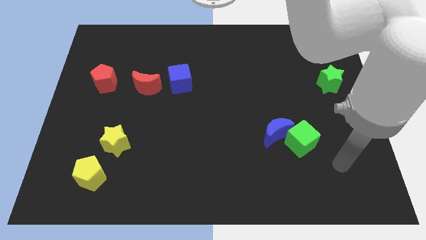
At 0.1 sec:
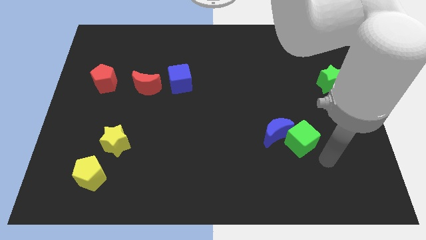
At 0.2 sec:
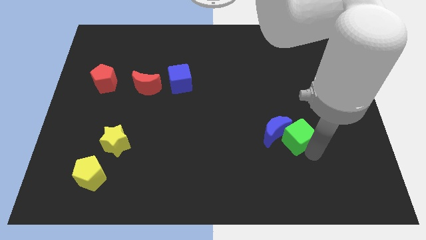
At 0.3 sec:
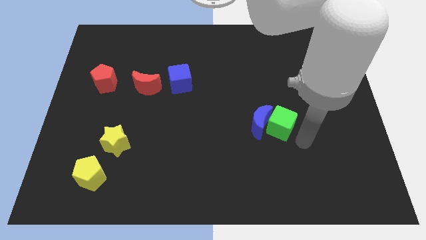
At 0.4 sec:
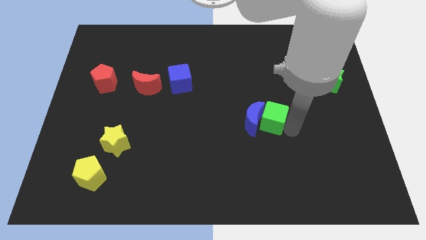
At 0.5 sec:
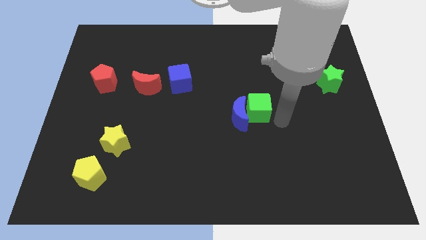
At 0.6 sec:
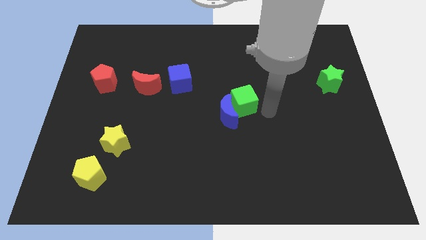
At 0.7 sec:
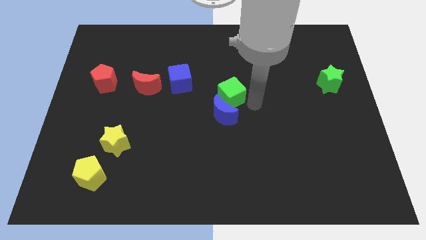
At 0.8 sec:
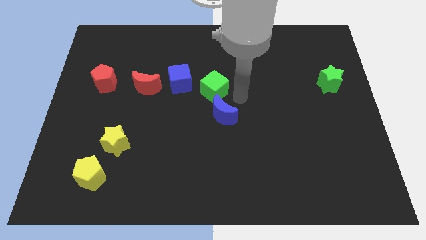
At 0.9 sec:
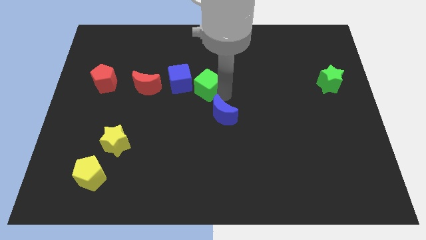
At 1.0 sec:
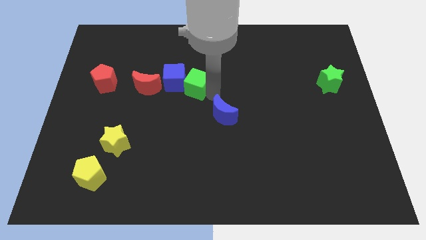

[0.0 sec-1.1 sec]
separate the blue moon from the green cube

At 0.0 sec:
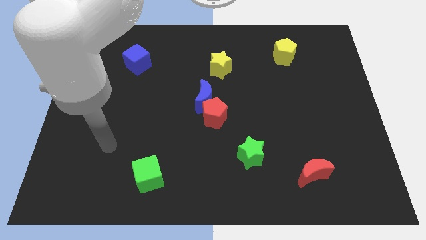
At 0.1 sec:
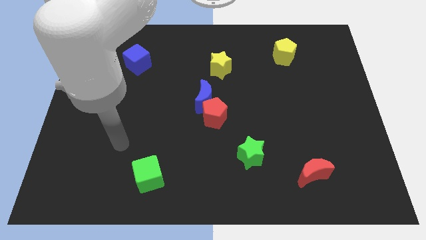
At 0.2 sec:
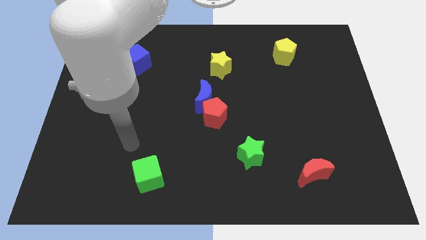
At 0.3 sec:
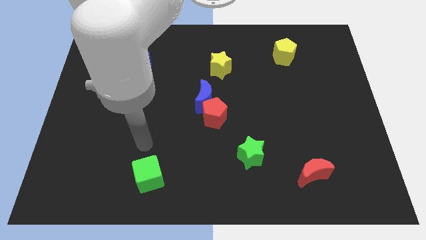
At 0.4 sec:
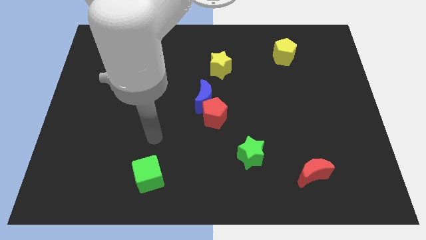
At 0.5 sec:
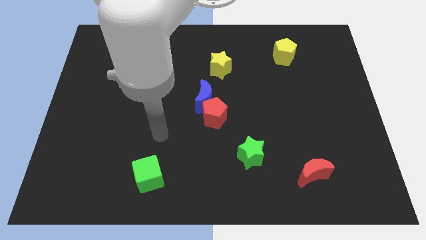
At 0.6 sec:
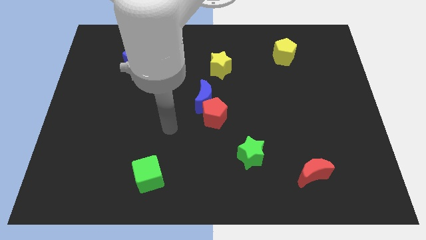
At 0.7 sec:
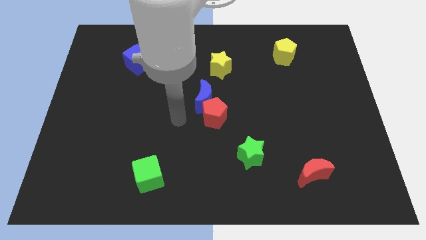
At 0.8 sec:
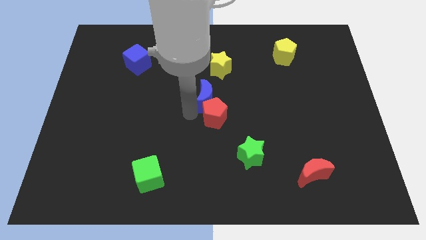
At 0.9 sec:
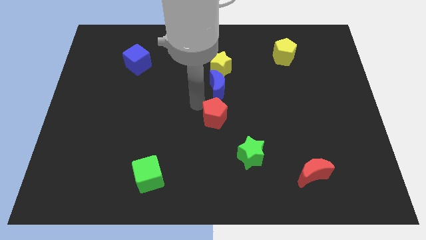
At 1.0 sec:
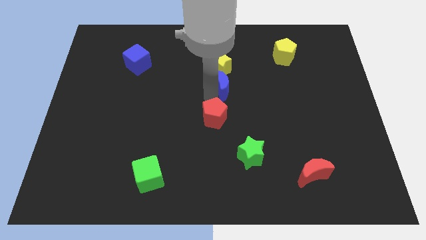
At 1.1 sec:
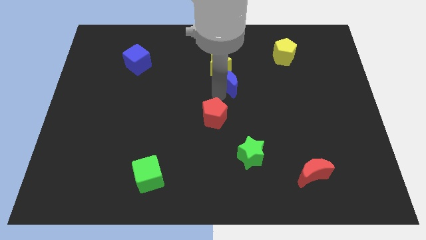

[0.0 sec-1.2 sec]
pull the red pentagon apart from the blue moon

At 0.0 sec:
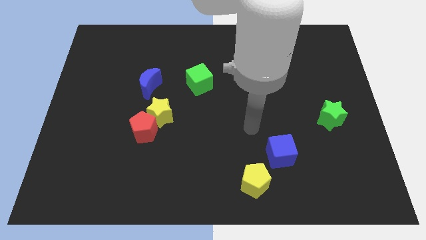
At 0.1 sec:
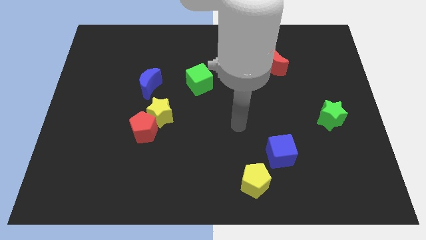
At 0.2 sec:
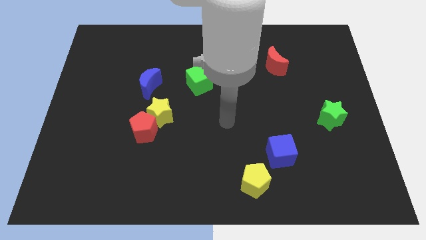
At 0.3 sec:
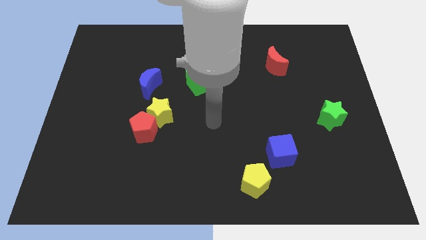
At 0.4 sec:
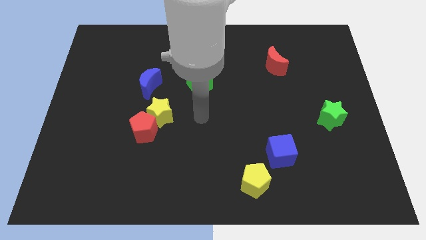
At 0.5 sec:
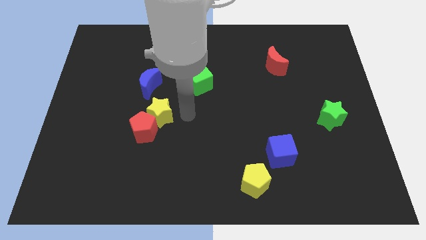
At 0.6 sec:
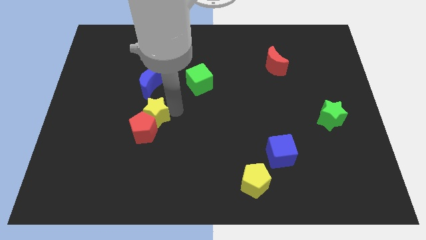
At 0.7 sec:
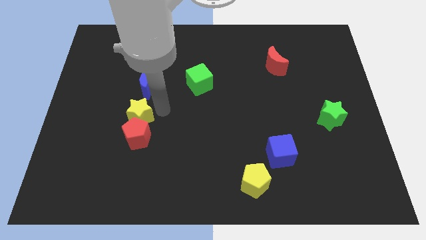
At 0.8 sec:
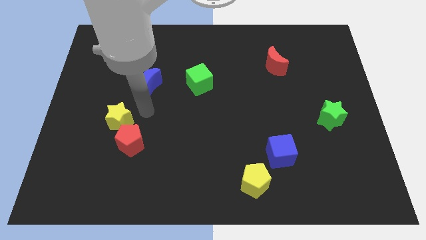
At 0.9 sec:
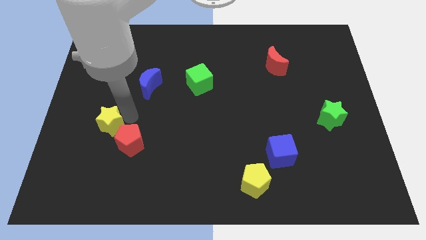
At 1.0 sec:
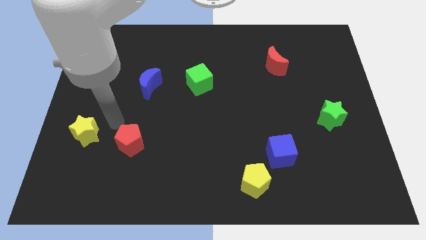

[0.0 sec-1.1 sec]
move the red pentagon away from the yellow star

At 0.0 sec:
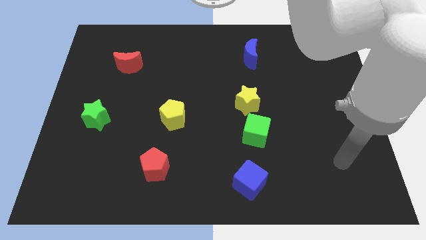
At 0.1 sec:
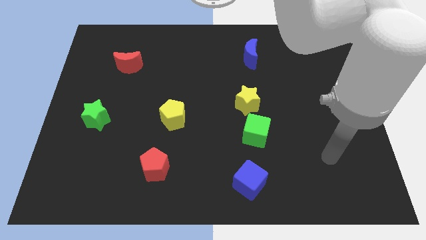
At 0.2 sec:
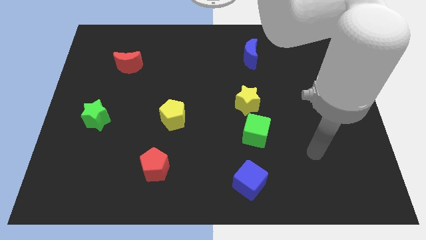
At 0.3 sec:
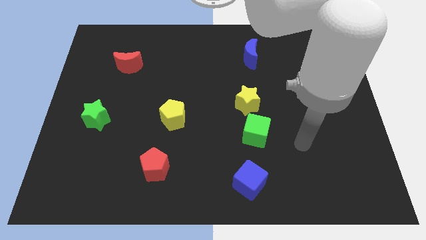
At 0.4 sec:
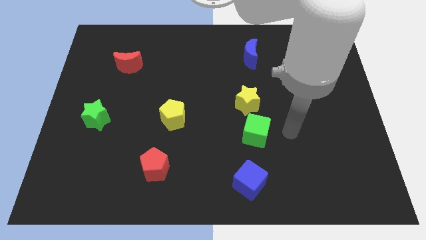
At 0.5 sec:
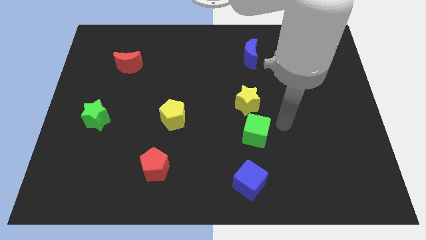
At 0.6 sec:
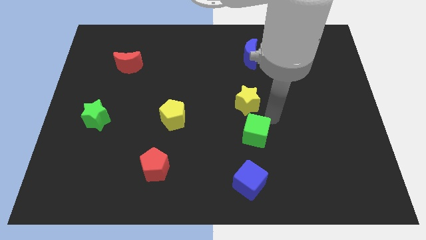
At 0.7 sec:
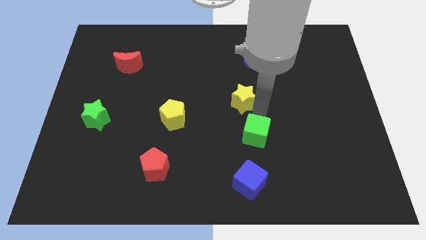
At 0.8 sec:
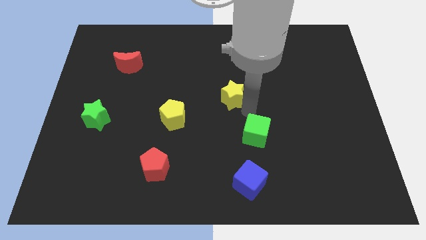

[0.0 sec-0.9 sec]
pull the green cube apart from the yellow star

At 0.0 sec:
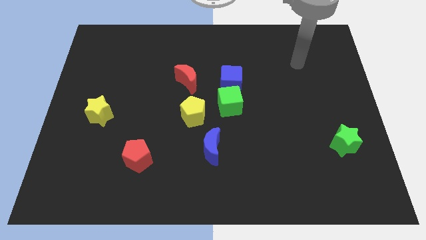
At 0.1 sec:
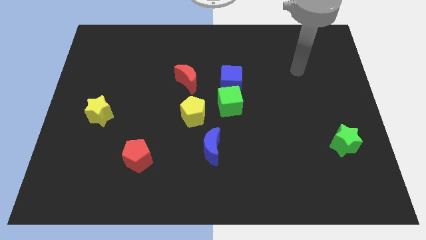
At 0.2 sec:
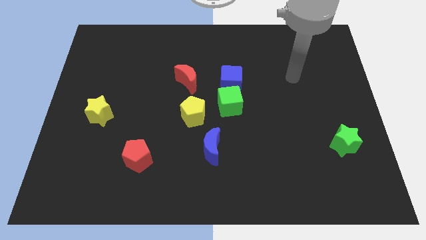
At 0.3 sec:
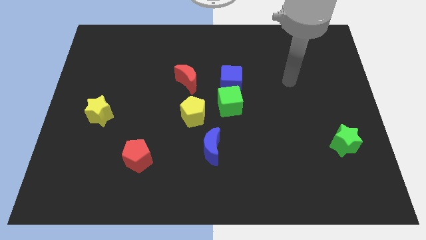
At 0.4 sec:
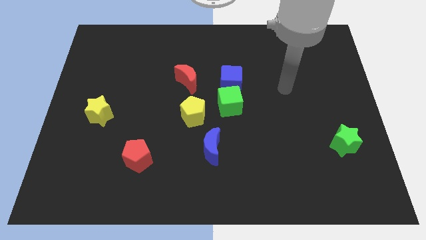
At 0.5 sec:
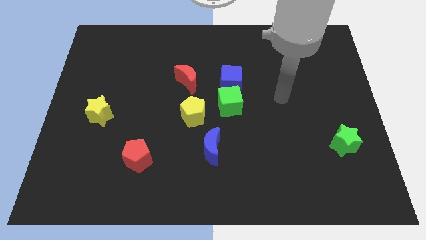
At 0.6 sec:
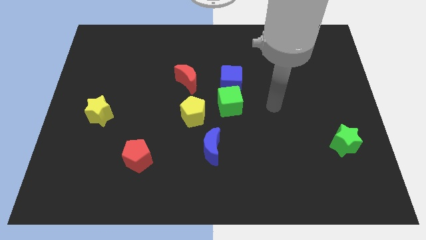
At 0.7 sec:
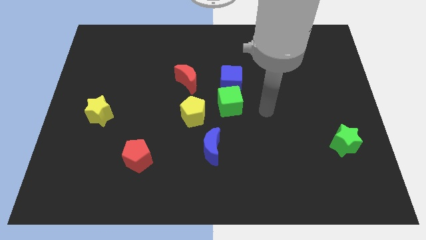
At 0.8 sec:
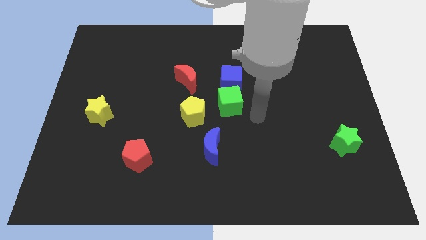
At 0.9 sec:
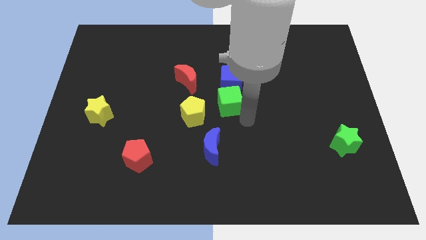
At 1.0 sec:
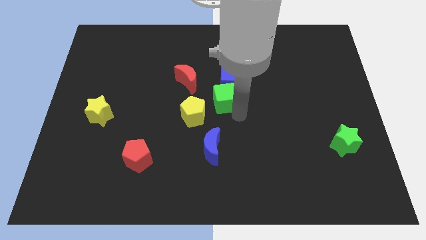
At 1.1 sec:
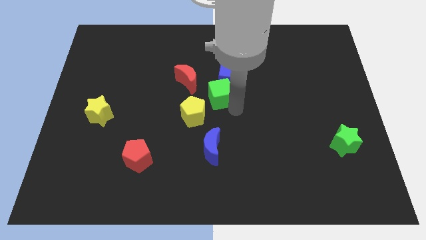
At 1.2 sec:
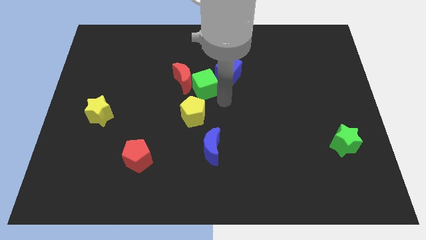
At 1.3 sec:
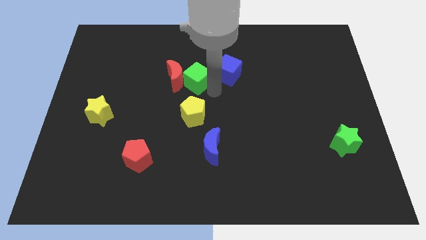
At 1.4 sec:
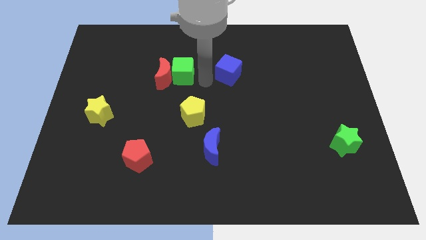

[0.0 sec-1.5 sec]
separate the blue cube from the green cube

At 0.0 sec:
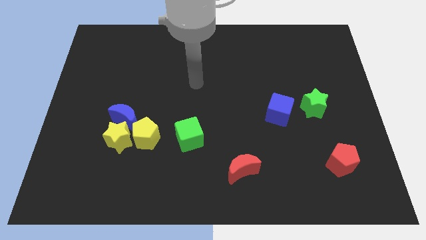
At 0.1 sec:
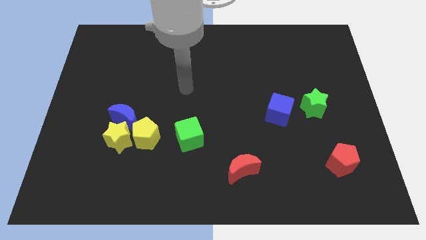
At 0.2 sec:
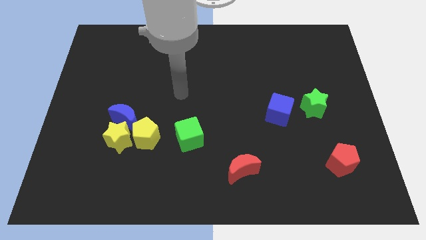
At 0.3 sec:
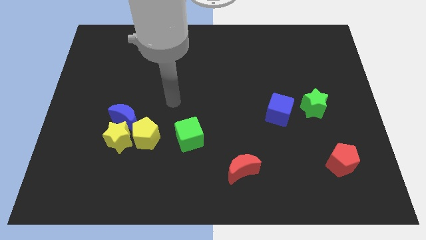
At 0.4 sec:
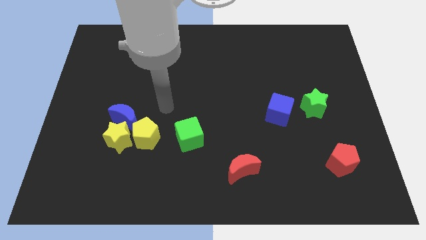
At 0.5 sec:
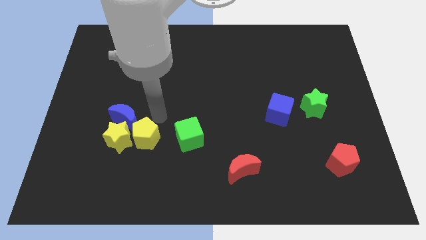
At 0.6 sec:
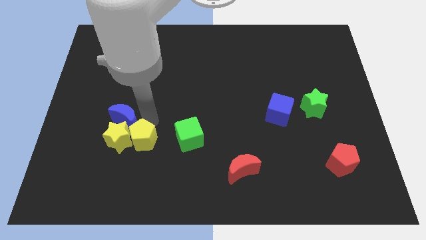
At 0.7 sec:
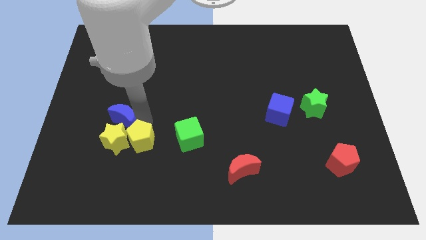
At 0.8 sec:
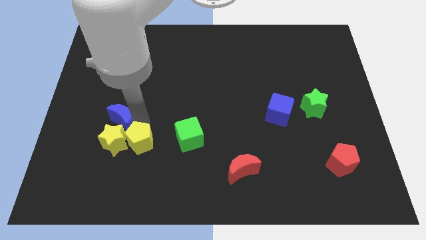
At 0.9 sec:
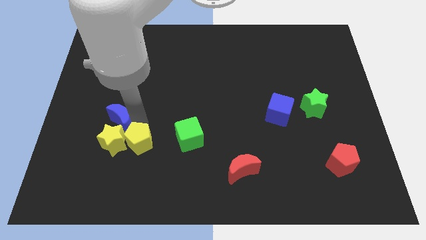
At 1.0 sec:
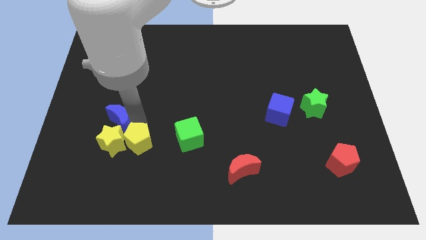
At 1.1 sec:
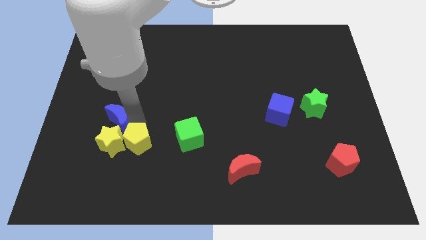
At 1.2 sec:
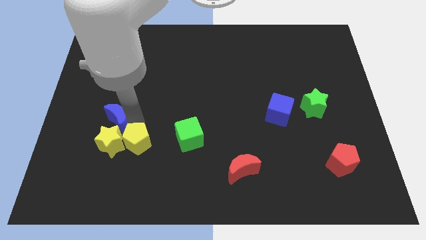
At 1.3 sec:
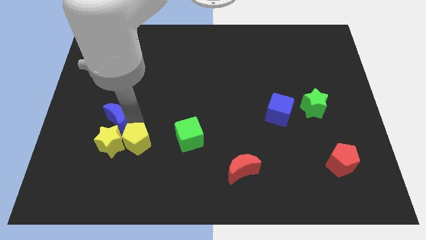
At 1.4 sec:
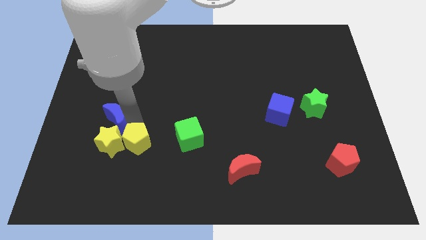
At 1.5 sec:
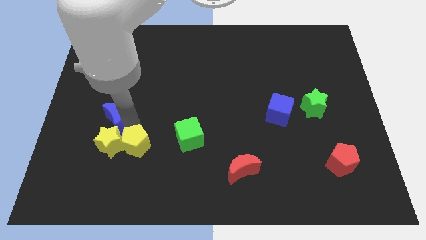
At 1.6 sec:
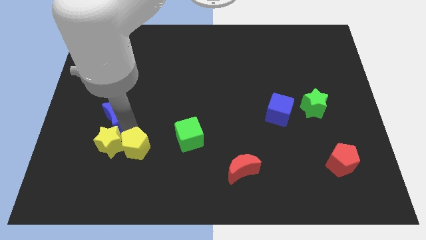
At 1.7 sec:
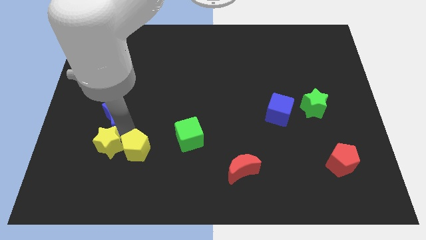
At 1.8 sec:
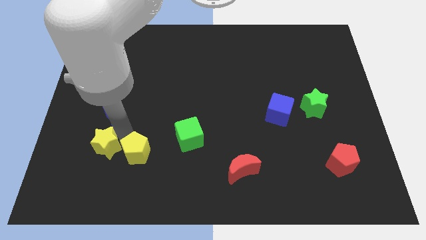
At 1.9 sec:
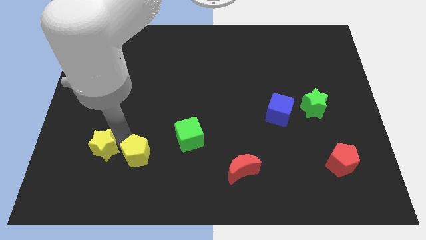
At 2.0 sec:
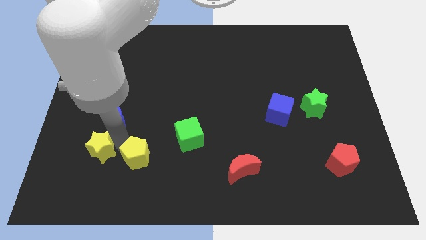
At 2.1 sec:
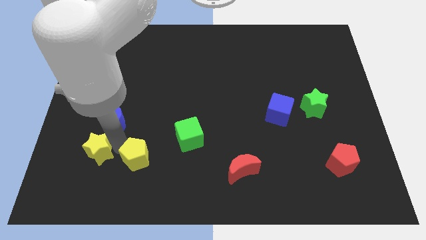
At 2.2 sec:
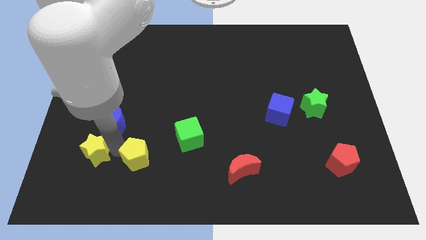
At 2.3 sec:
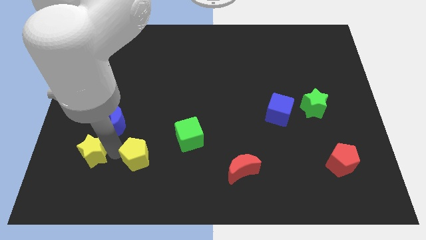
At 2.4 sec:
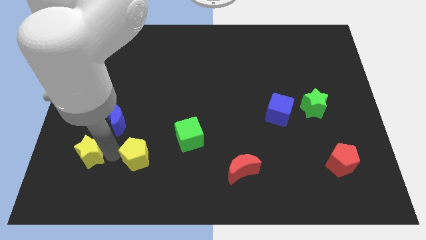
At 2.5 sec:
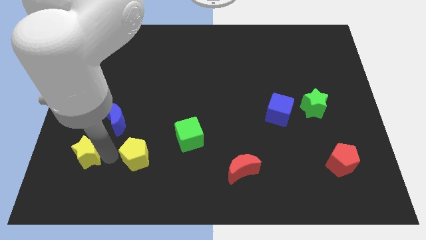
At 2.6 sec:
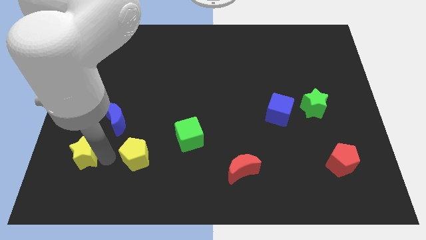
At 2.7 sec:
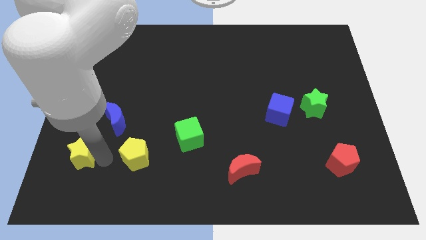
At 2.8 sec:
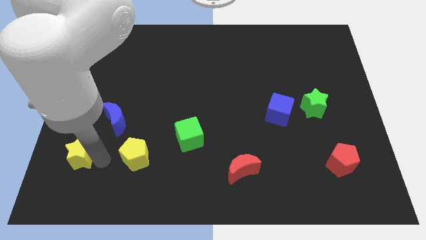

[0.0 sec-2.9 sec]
separate the yellow star from the blue moon and yellow pentagon

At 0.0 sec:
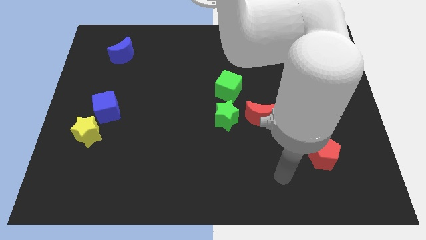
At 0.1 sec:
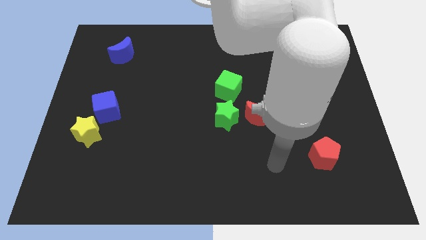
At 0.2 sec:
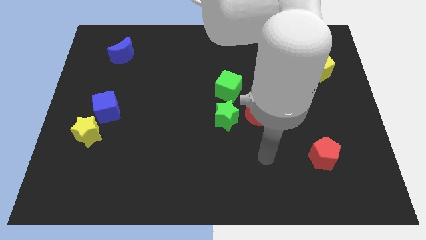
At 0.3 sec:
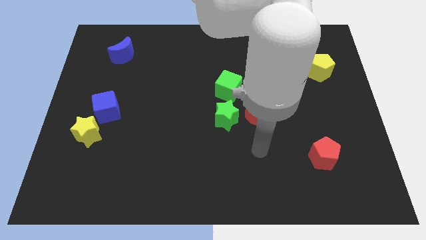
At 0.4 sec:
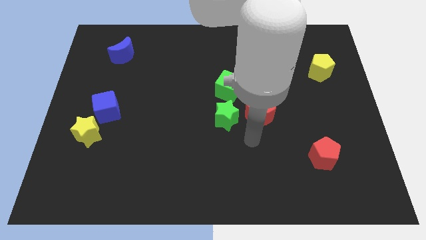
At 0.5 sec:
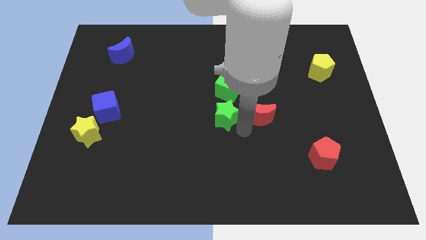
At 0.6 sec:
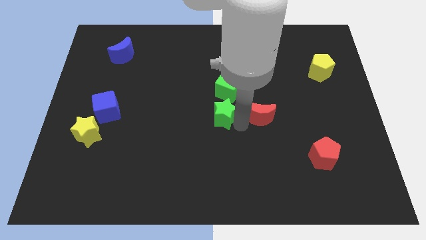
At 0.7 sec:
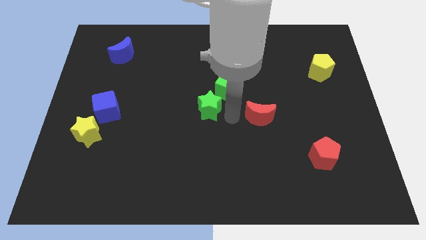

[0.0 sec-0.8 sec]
move the red moon away from the green star
